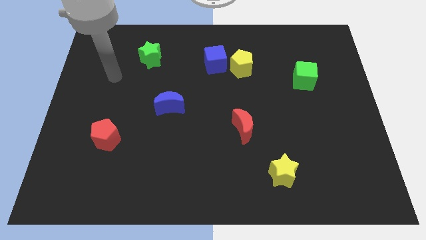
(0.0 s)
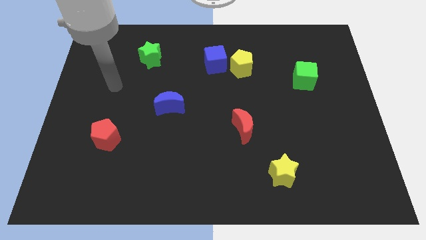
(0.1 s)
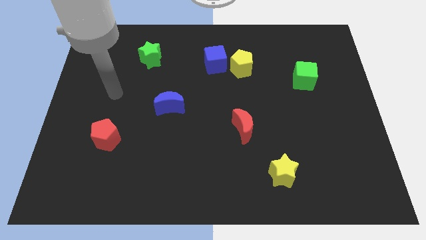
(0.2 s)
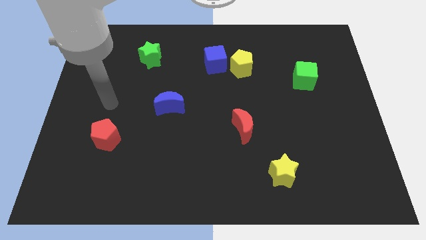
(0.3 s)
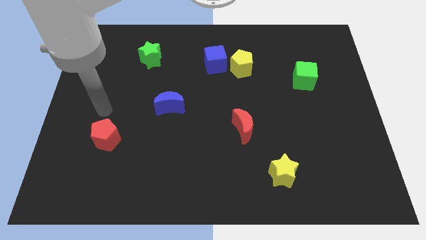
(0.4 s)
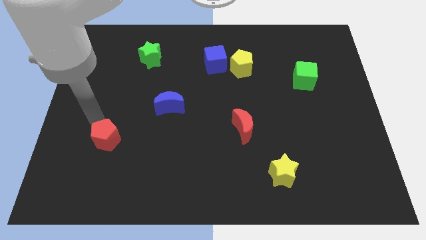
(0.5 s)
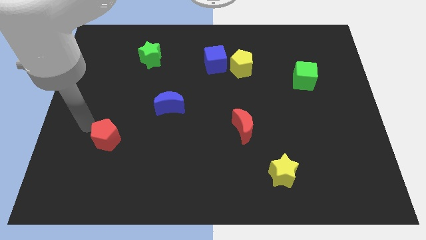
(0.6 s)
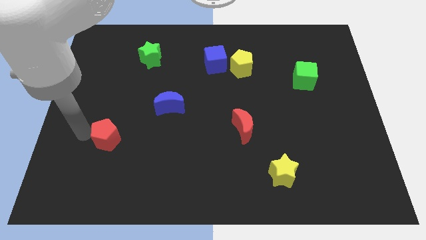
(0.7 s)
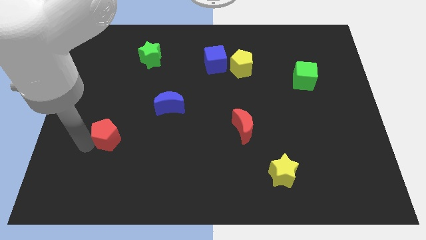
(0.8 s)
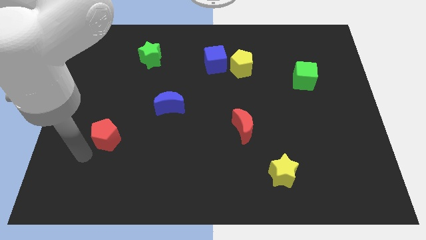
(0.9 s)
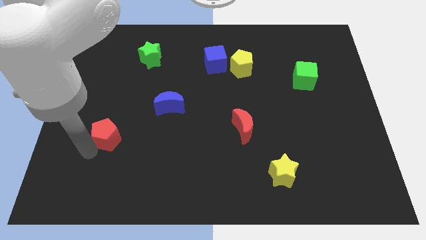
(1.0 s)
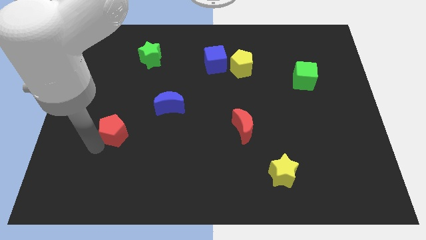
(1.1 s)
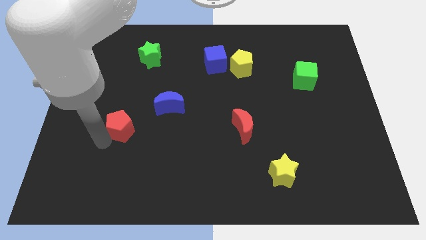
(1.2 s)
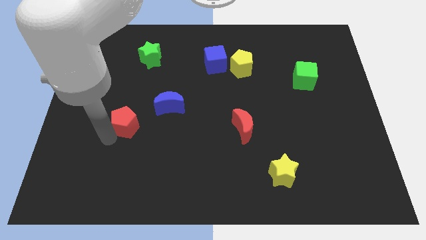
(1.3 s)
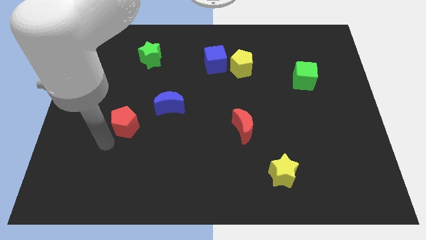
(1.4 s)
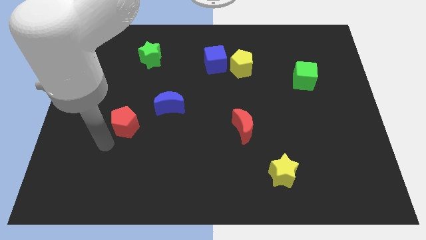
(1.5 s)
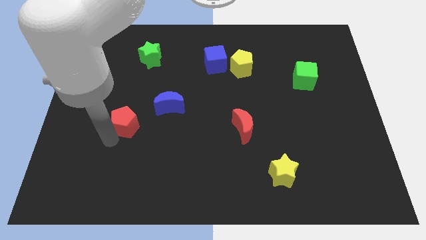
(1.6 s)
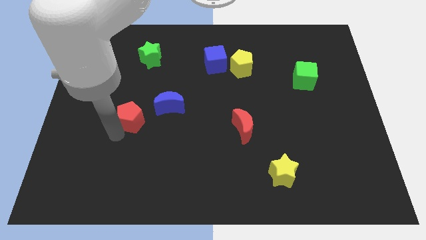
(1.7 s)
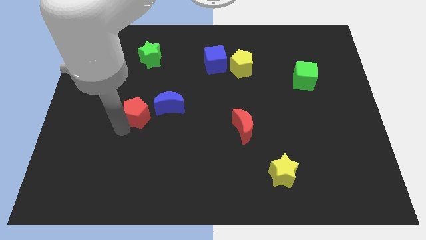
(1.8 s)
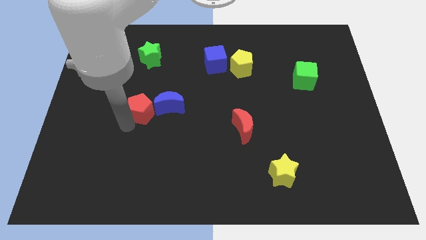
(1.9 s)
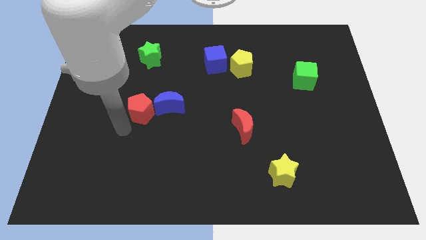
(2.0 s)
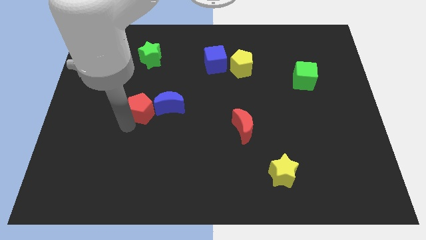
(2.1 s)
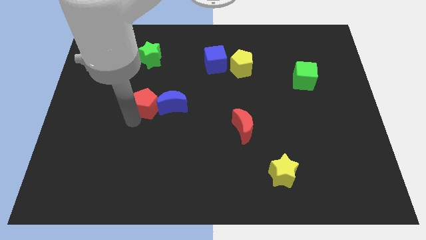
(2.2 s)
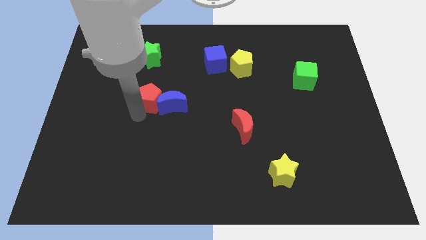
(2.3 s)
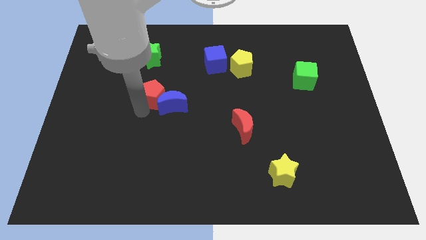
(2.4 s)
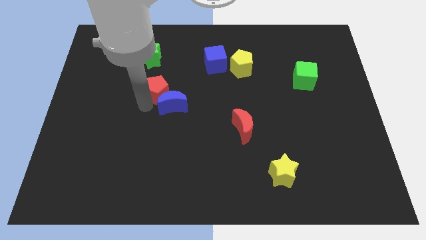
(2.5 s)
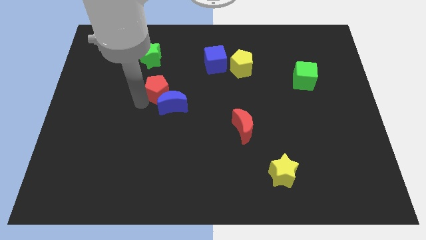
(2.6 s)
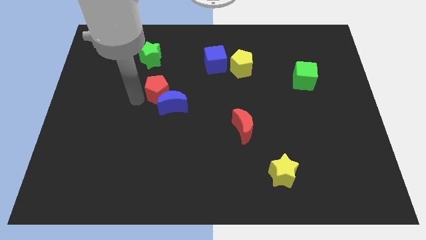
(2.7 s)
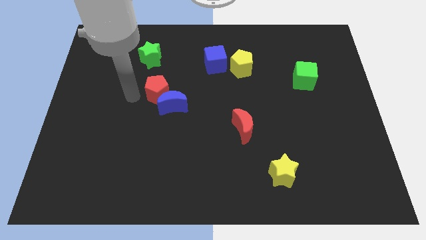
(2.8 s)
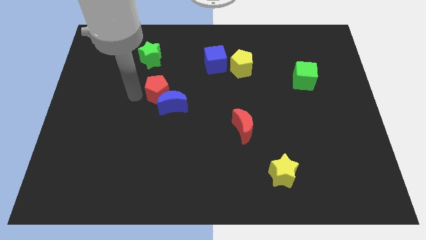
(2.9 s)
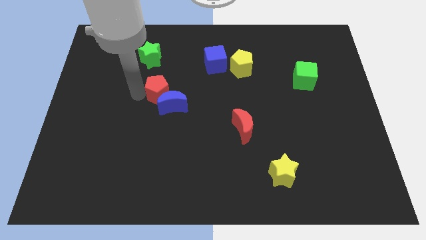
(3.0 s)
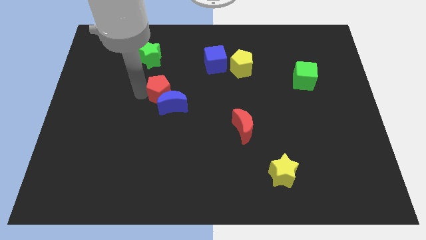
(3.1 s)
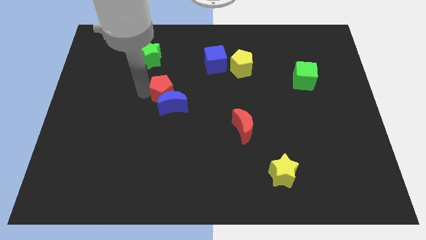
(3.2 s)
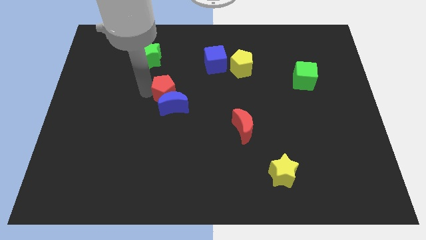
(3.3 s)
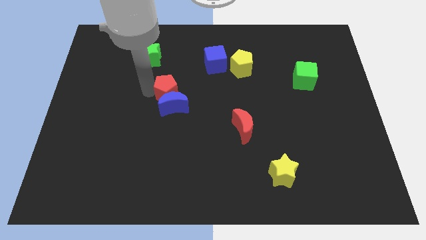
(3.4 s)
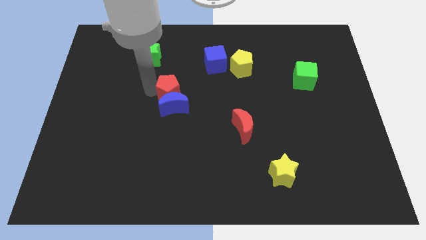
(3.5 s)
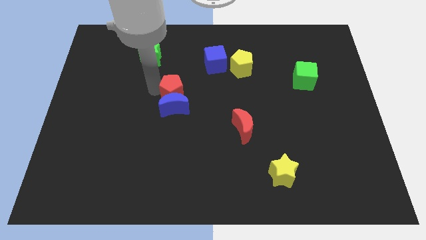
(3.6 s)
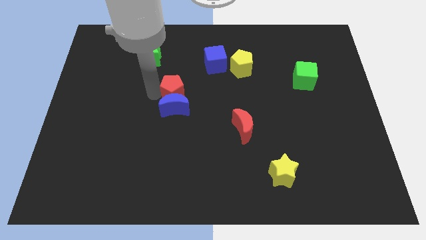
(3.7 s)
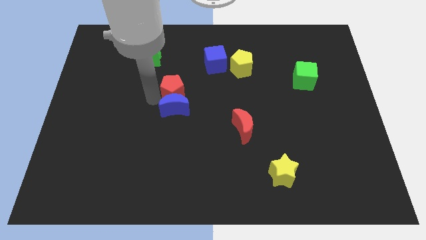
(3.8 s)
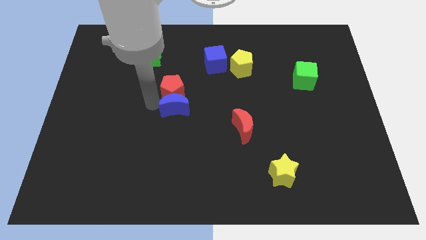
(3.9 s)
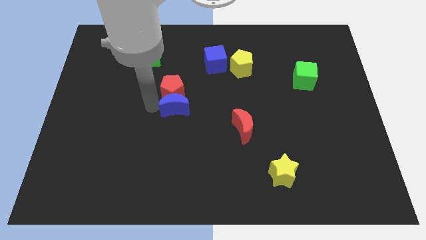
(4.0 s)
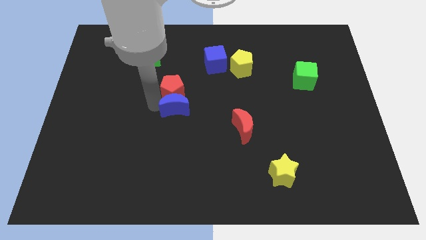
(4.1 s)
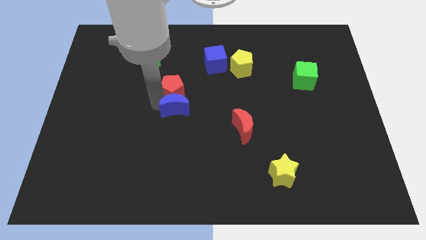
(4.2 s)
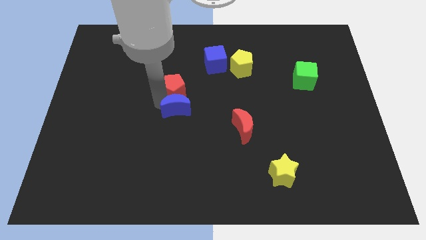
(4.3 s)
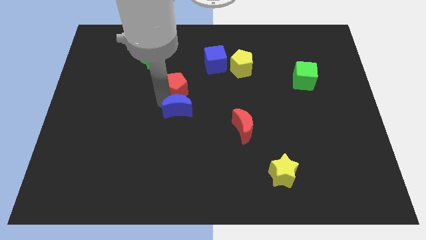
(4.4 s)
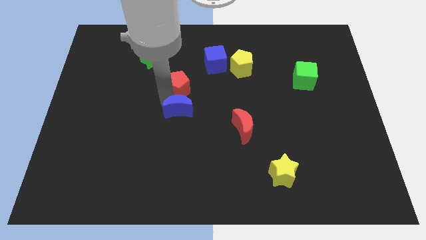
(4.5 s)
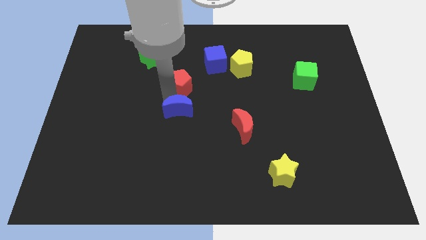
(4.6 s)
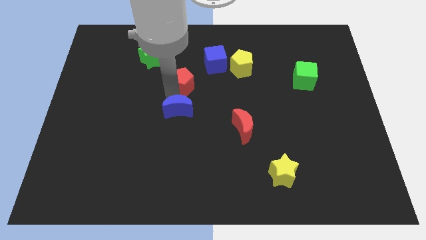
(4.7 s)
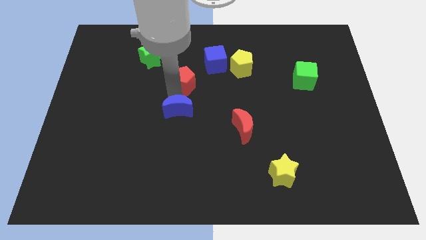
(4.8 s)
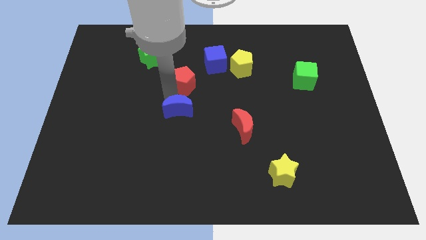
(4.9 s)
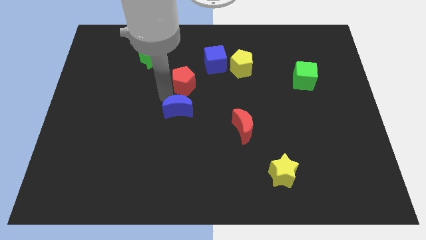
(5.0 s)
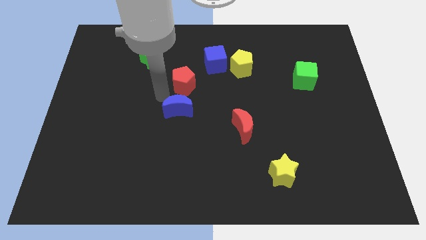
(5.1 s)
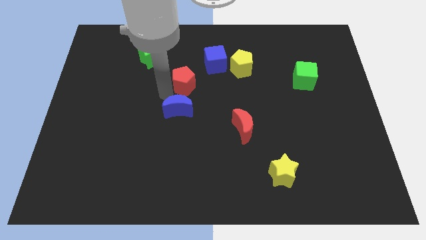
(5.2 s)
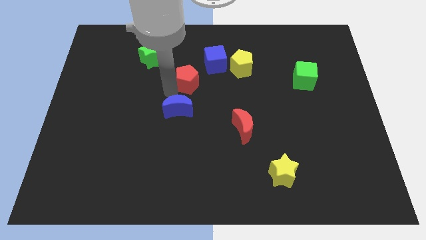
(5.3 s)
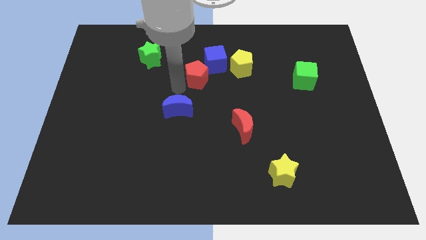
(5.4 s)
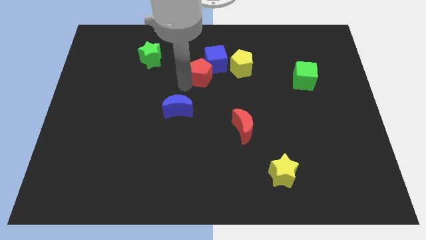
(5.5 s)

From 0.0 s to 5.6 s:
move the red pentagon close to the blue cube

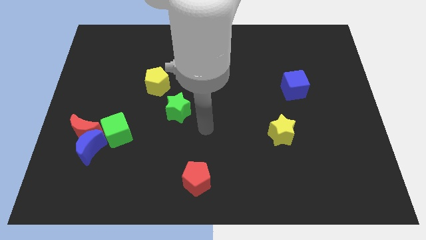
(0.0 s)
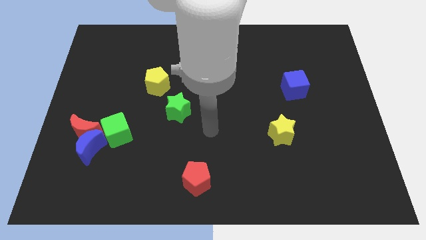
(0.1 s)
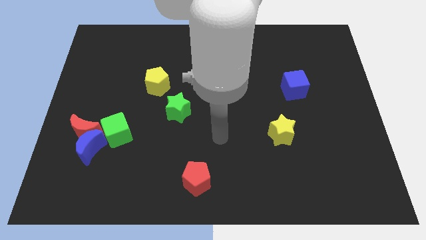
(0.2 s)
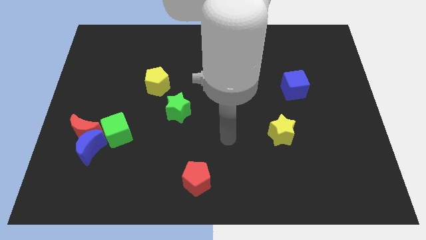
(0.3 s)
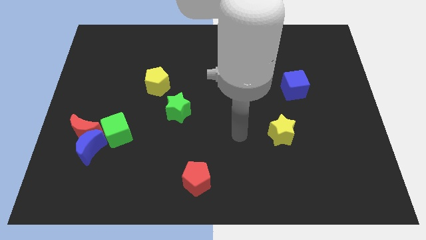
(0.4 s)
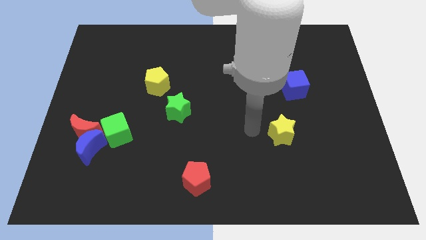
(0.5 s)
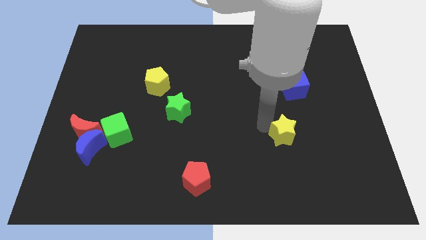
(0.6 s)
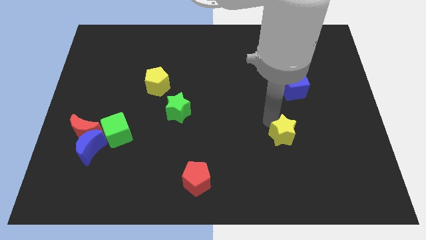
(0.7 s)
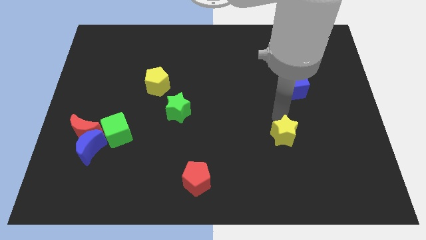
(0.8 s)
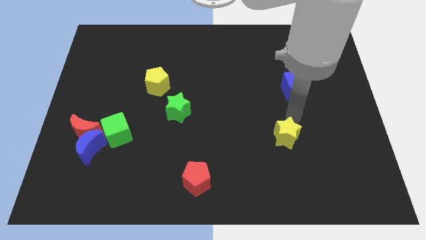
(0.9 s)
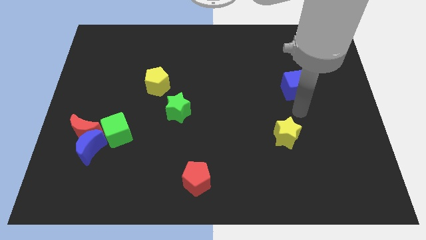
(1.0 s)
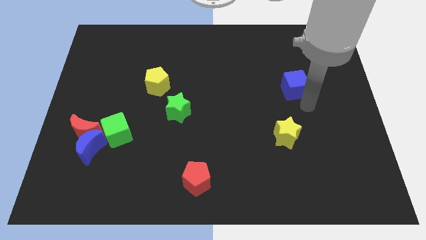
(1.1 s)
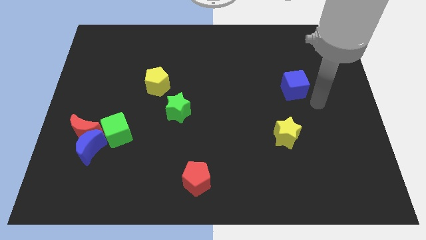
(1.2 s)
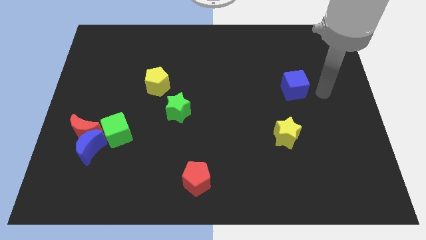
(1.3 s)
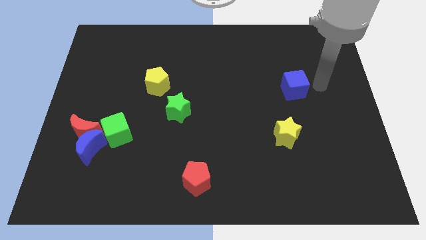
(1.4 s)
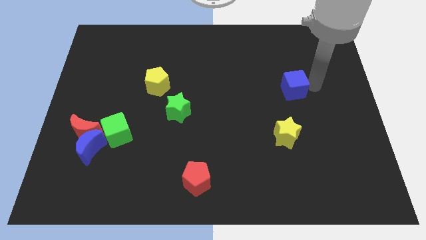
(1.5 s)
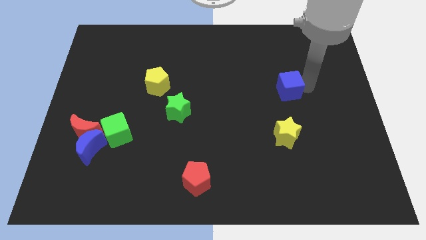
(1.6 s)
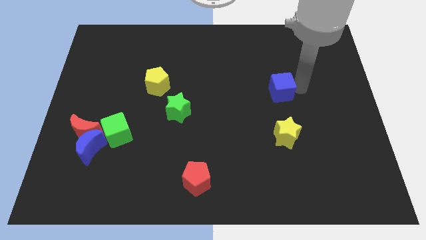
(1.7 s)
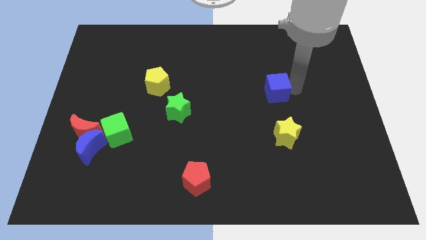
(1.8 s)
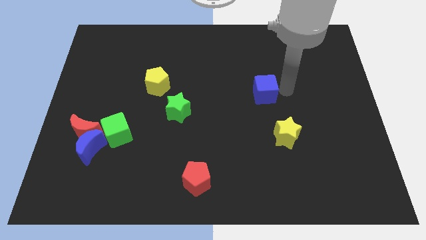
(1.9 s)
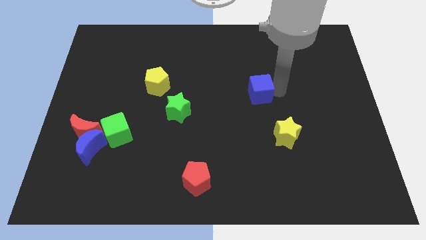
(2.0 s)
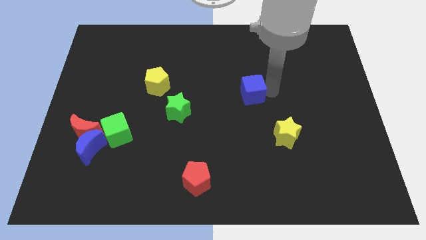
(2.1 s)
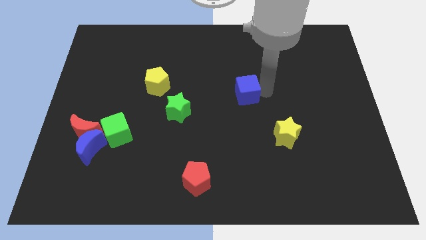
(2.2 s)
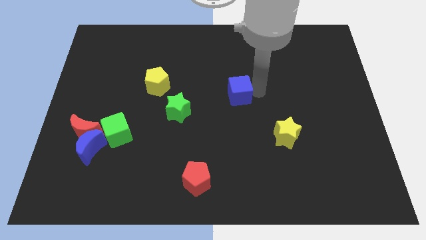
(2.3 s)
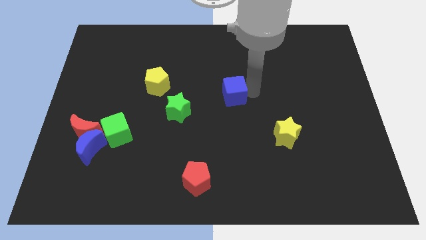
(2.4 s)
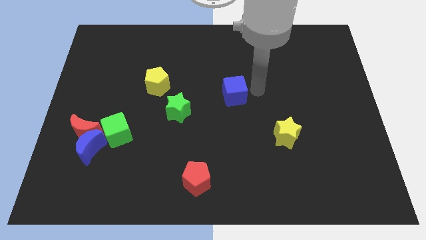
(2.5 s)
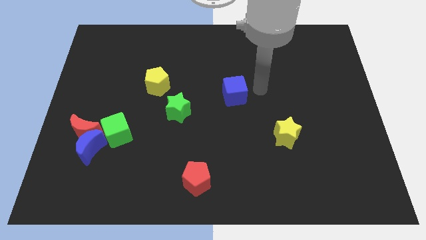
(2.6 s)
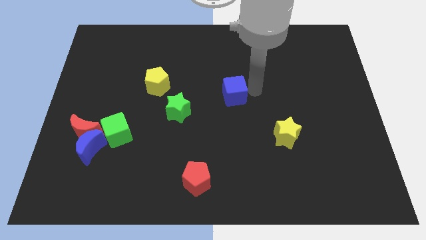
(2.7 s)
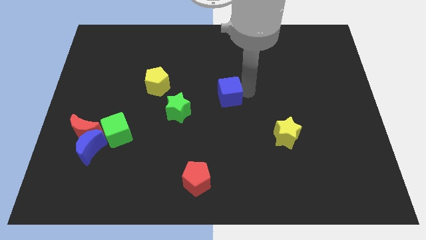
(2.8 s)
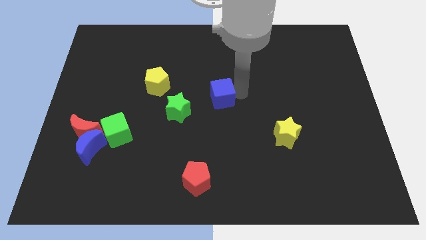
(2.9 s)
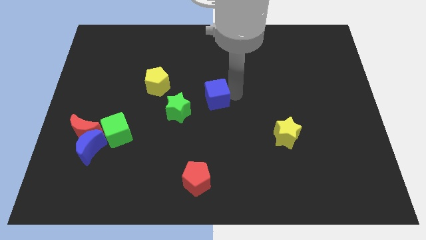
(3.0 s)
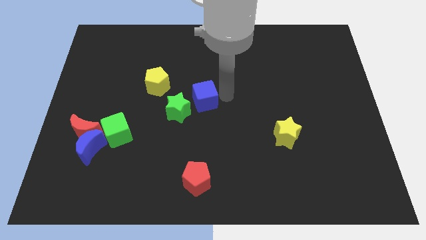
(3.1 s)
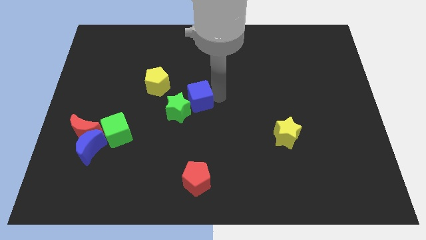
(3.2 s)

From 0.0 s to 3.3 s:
slide the blue cube close to the green star
